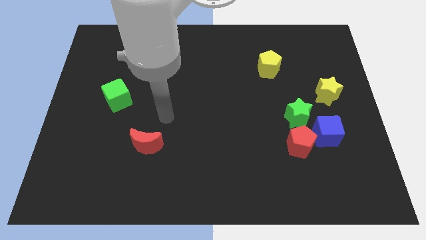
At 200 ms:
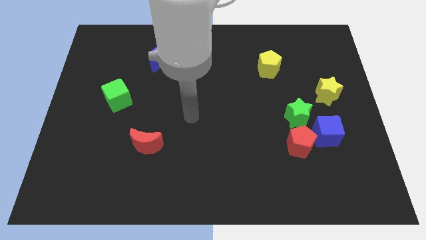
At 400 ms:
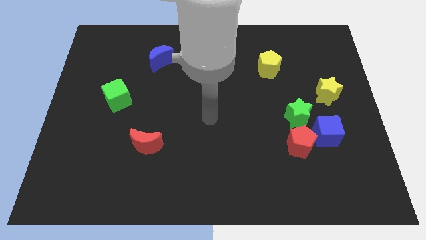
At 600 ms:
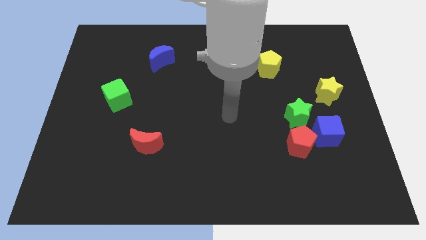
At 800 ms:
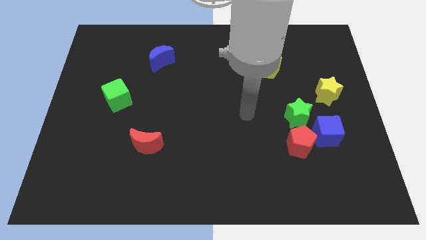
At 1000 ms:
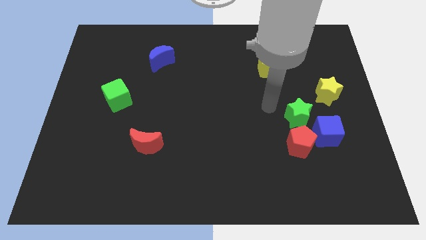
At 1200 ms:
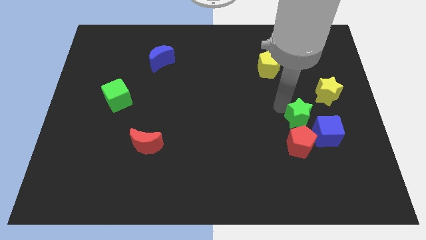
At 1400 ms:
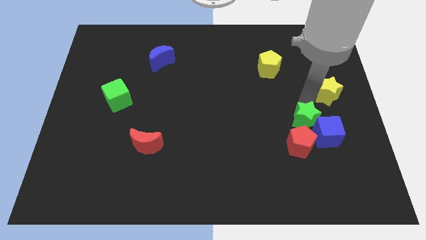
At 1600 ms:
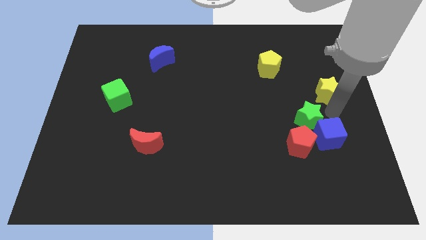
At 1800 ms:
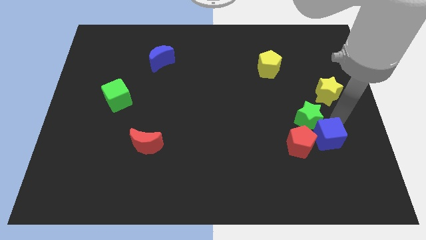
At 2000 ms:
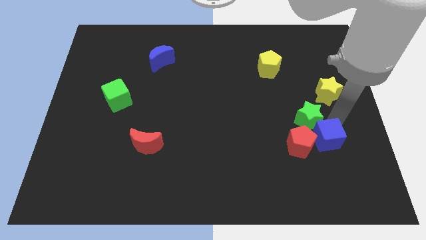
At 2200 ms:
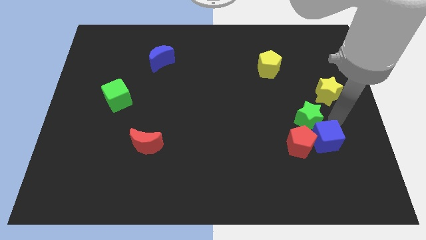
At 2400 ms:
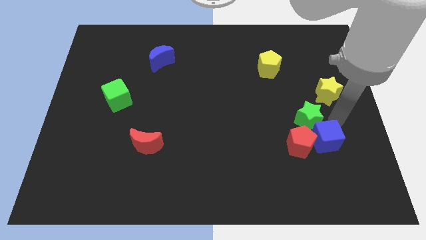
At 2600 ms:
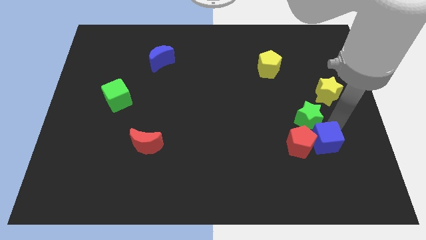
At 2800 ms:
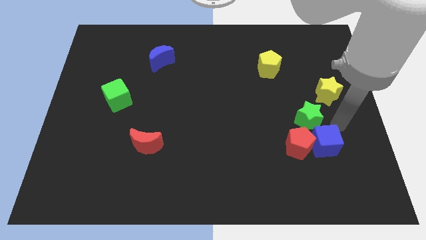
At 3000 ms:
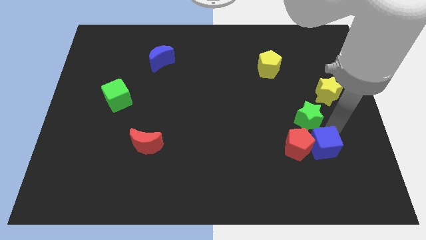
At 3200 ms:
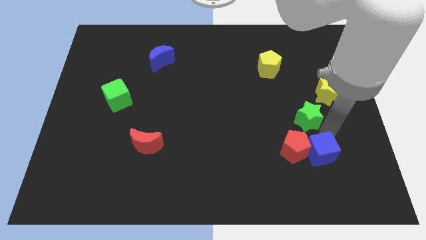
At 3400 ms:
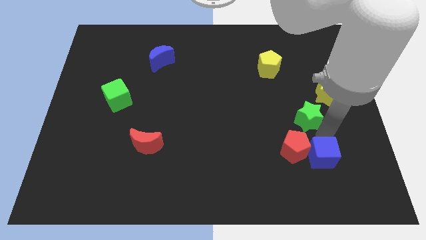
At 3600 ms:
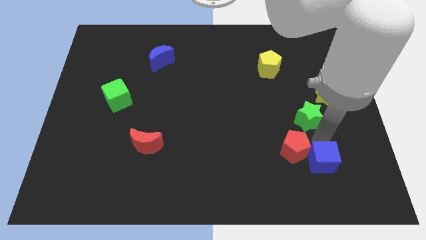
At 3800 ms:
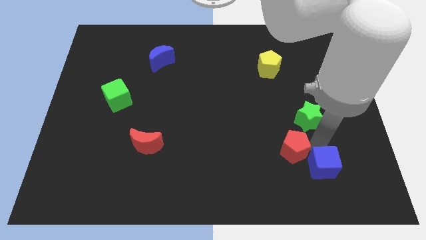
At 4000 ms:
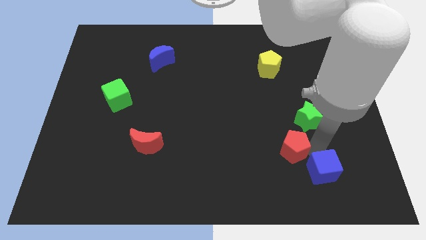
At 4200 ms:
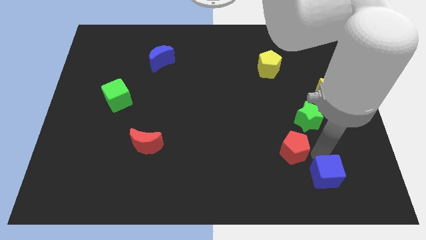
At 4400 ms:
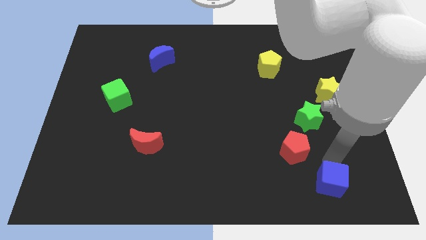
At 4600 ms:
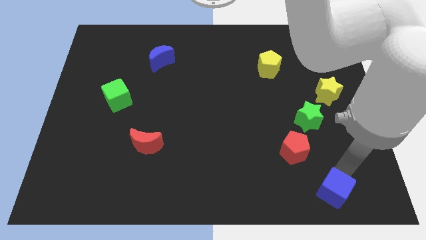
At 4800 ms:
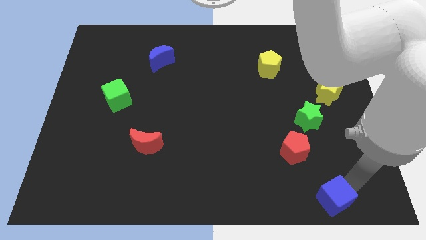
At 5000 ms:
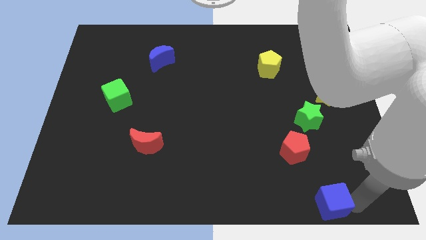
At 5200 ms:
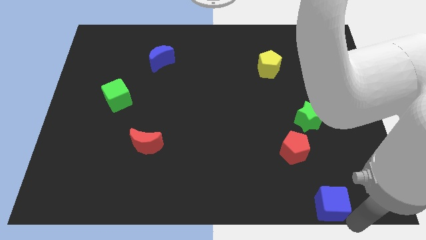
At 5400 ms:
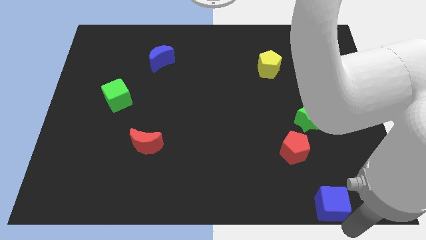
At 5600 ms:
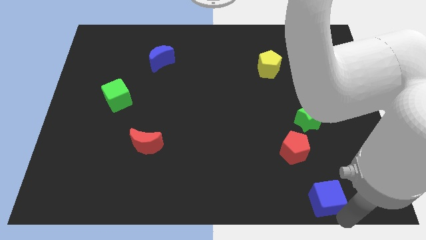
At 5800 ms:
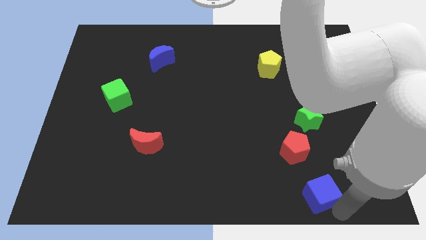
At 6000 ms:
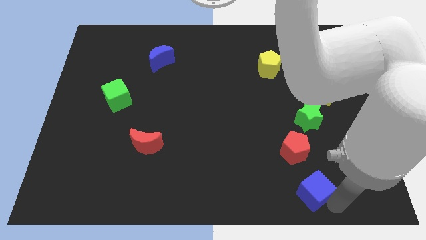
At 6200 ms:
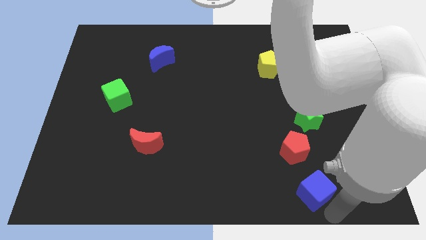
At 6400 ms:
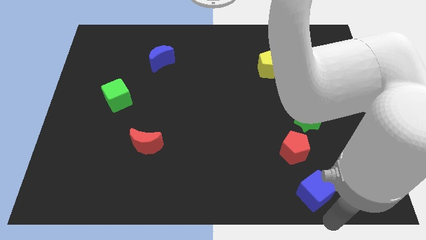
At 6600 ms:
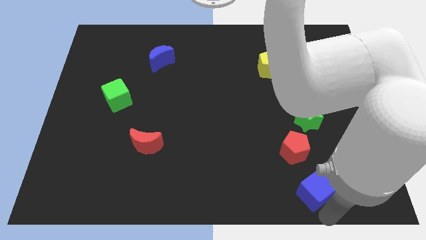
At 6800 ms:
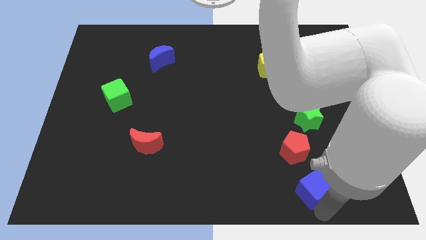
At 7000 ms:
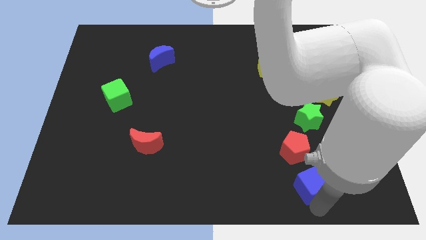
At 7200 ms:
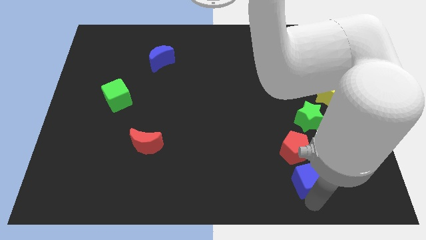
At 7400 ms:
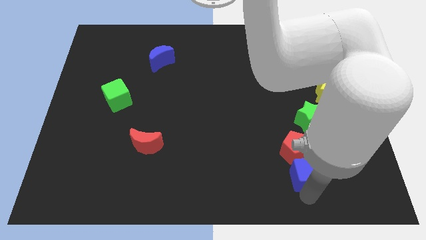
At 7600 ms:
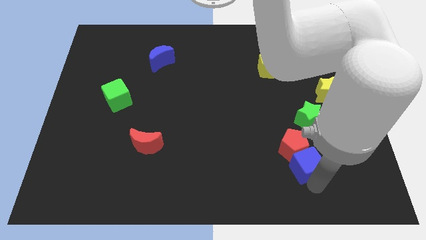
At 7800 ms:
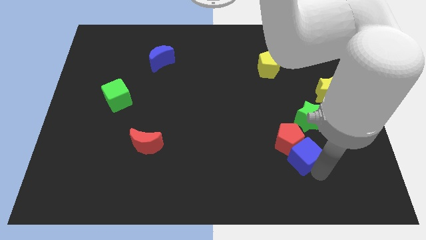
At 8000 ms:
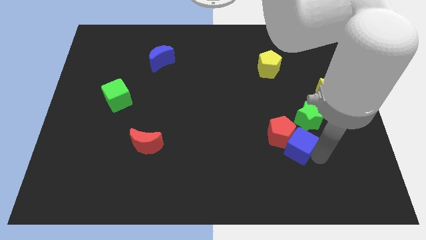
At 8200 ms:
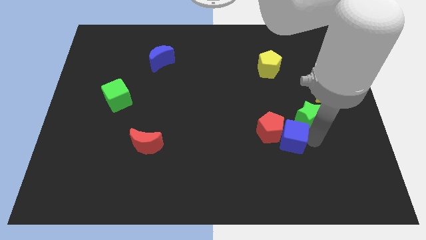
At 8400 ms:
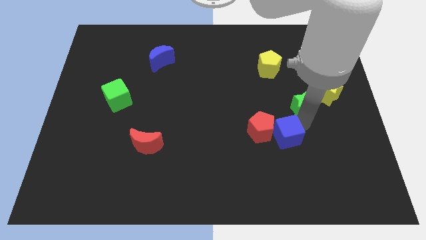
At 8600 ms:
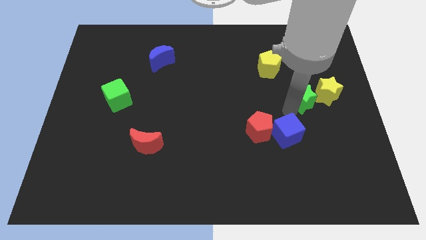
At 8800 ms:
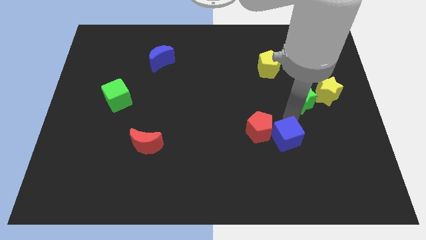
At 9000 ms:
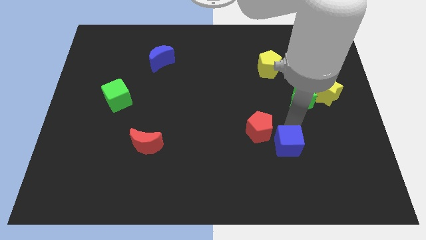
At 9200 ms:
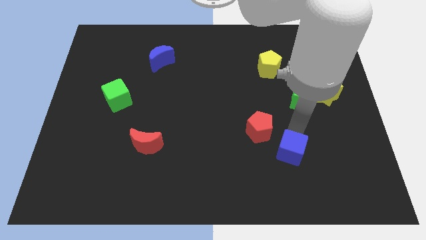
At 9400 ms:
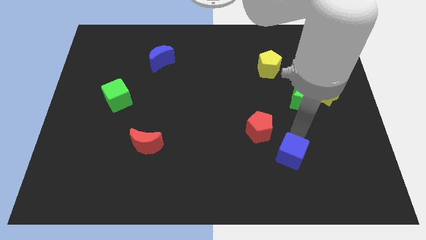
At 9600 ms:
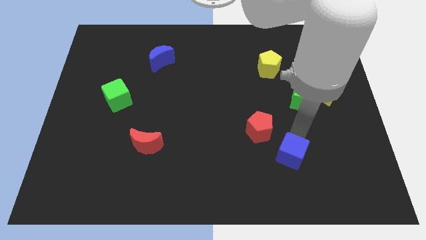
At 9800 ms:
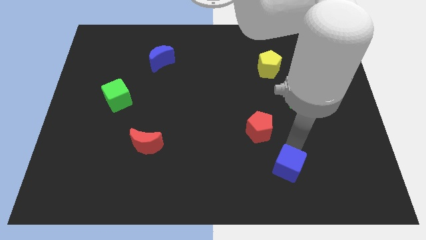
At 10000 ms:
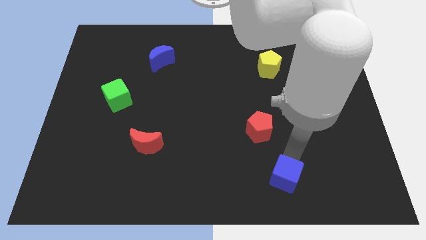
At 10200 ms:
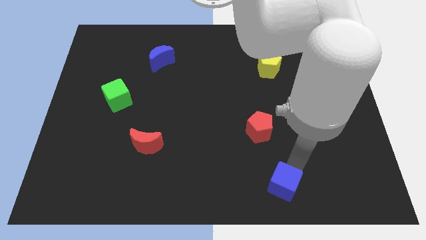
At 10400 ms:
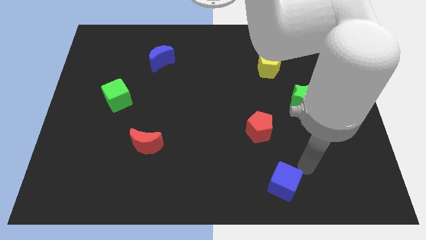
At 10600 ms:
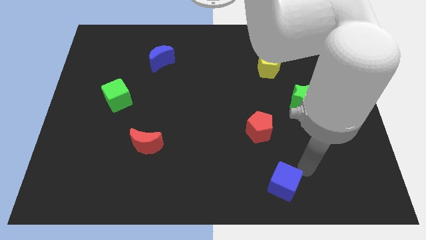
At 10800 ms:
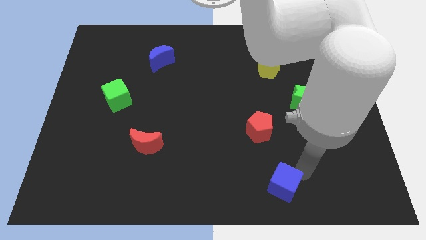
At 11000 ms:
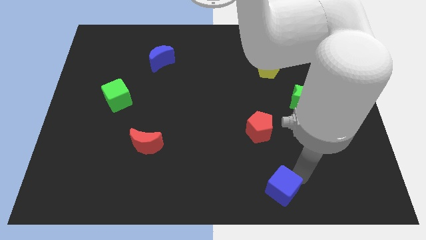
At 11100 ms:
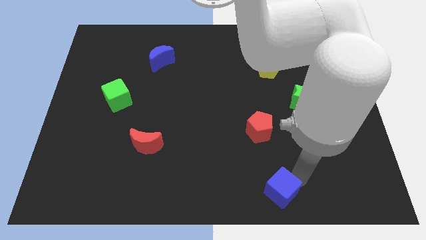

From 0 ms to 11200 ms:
push the blue cube to the bottom

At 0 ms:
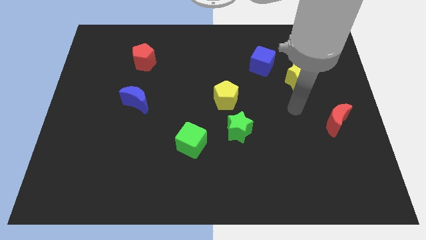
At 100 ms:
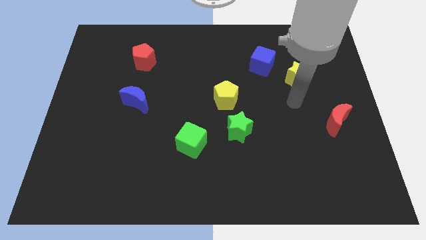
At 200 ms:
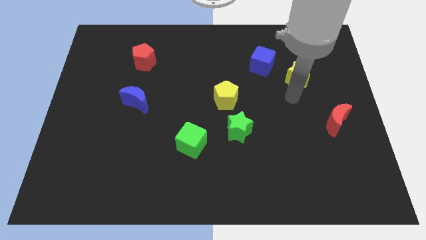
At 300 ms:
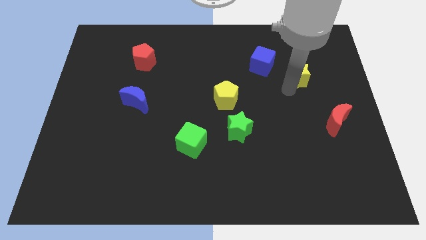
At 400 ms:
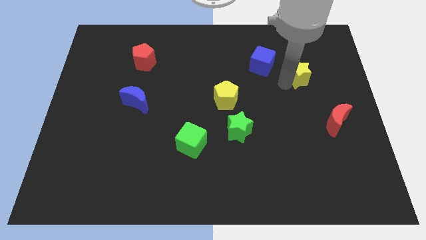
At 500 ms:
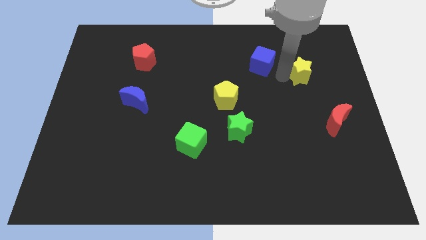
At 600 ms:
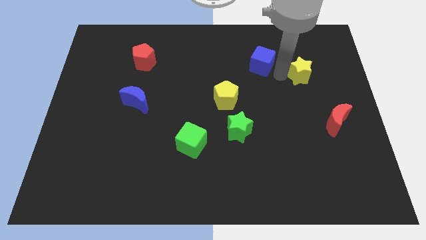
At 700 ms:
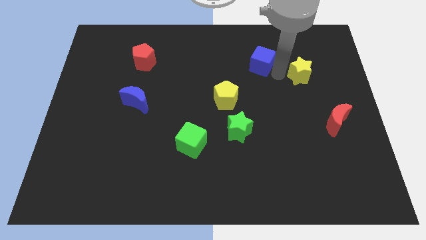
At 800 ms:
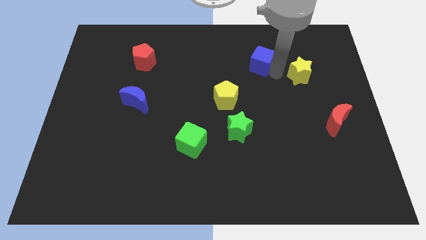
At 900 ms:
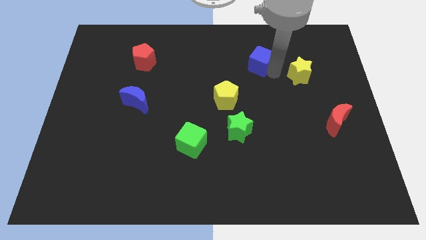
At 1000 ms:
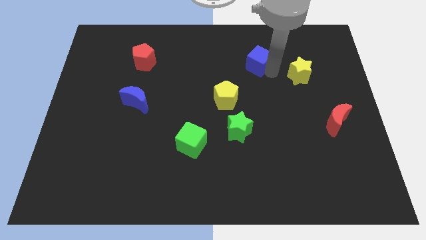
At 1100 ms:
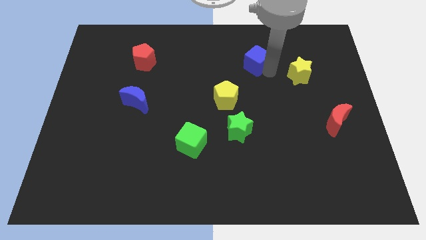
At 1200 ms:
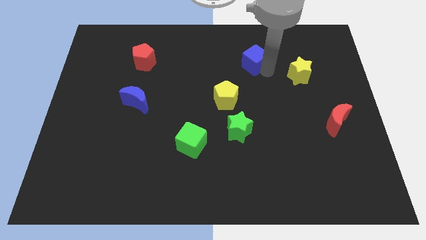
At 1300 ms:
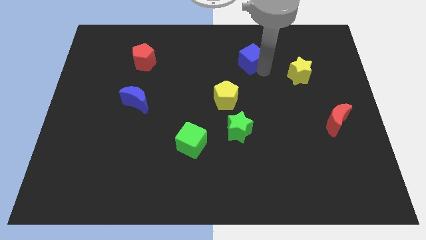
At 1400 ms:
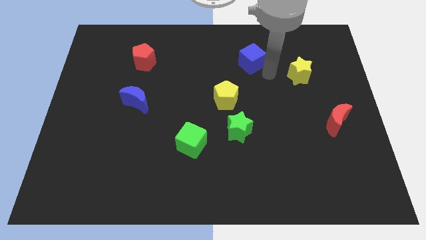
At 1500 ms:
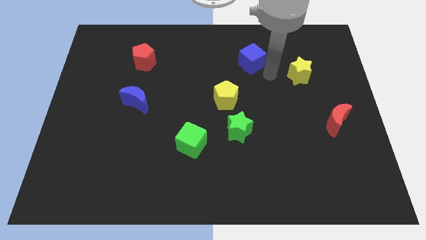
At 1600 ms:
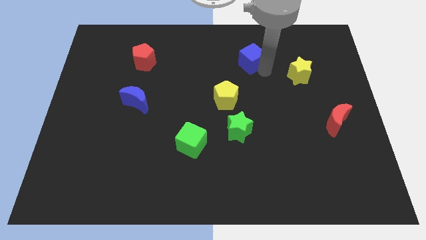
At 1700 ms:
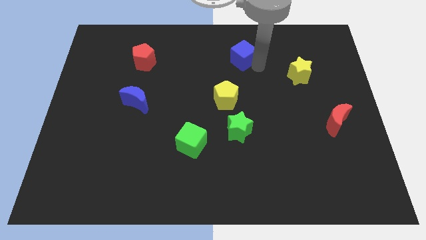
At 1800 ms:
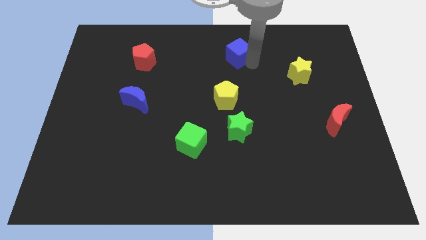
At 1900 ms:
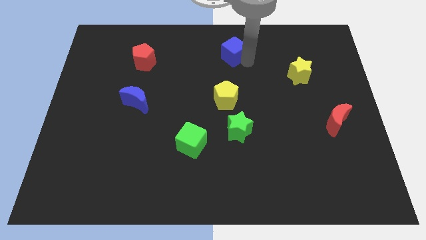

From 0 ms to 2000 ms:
put the blue cube to the top side

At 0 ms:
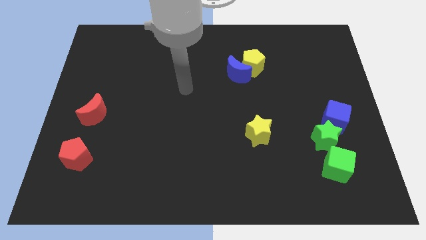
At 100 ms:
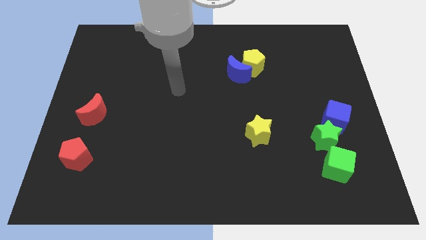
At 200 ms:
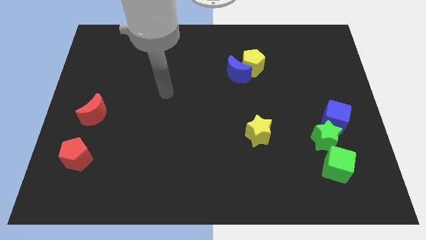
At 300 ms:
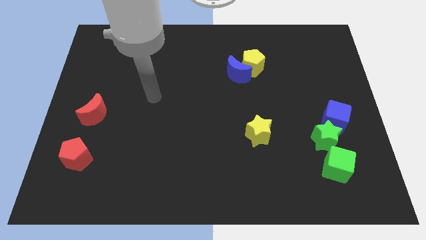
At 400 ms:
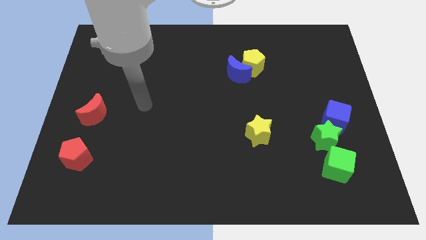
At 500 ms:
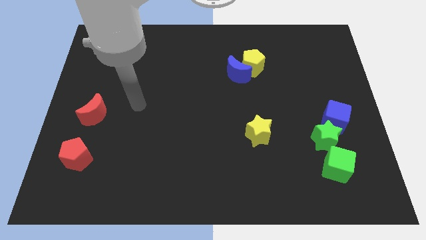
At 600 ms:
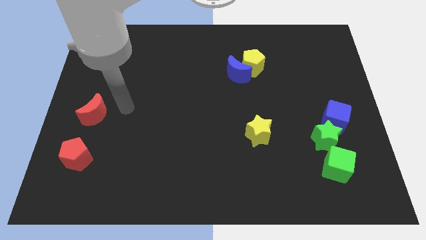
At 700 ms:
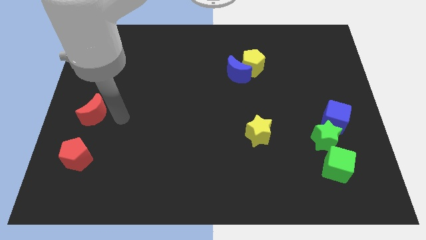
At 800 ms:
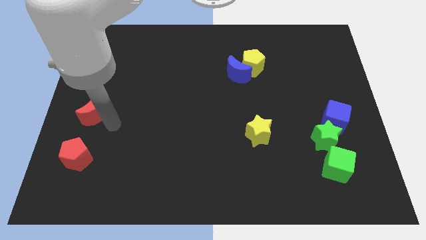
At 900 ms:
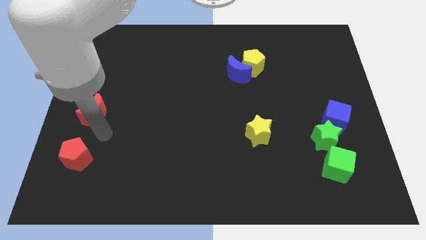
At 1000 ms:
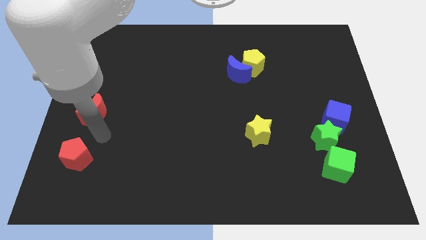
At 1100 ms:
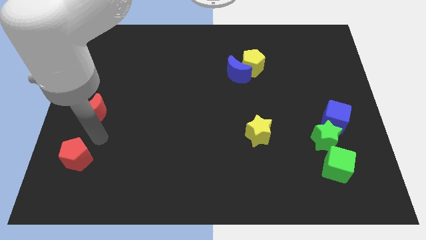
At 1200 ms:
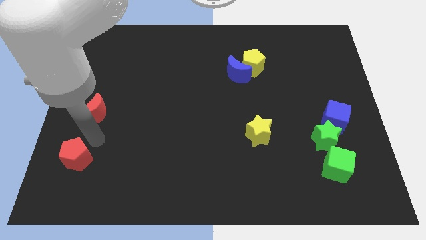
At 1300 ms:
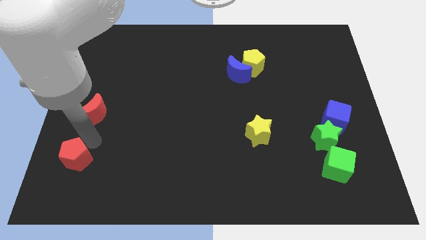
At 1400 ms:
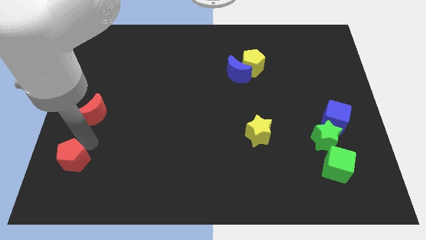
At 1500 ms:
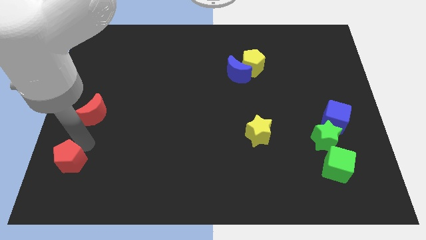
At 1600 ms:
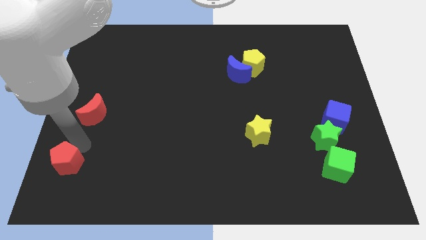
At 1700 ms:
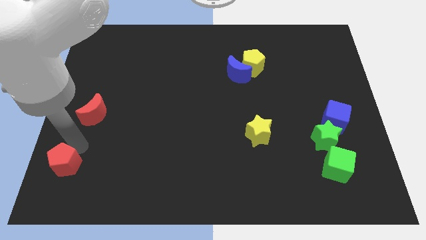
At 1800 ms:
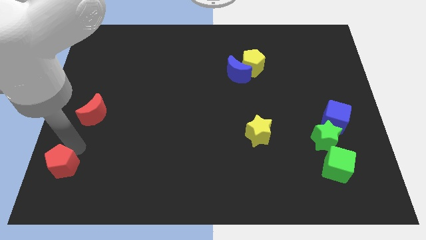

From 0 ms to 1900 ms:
move the red pentagon to the bottom left corner
